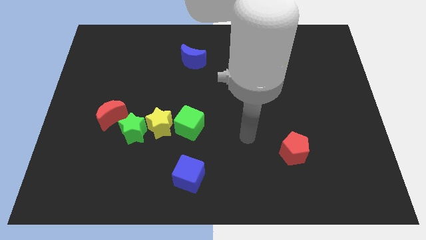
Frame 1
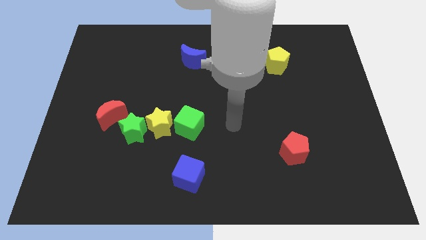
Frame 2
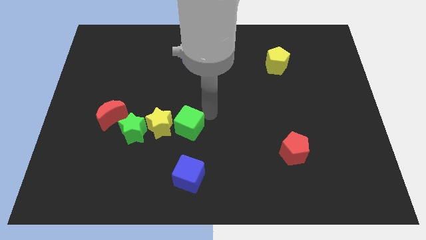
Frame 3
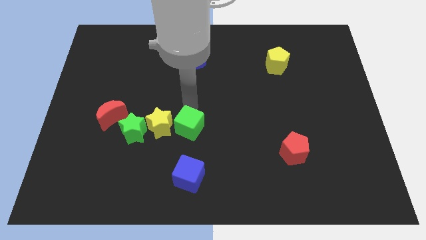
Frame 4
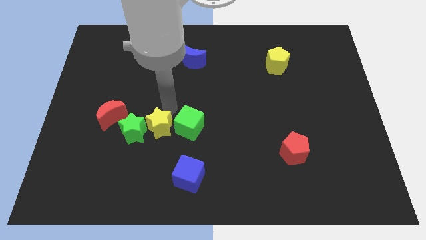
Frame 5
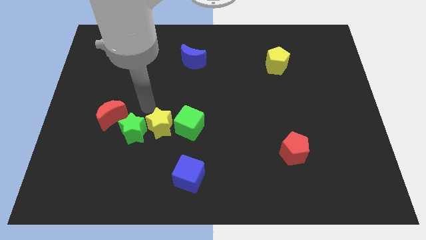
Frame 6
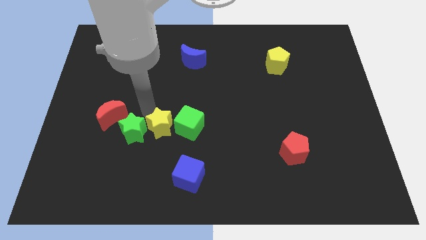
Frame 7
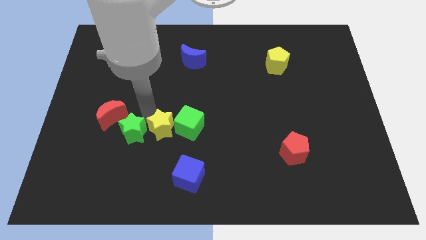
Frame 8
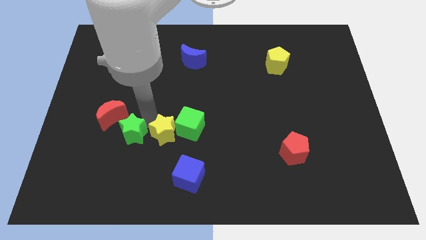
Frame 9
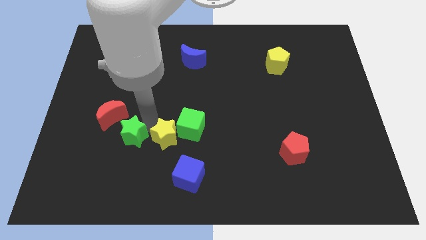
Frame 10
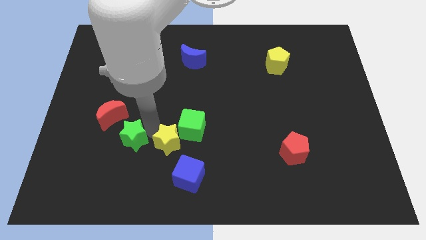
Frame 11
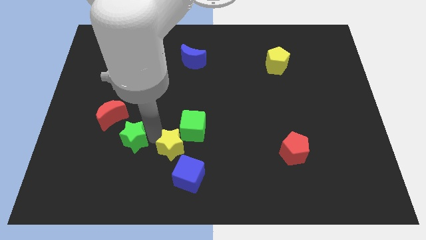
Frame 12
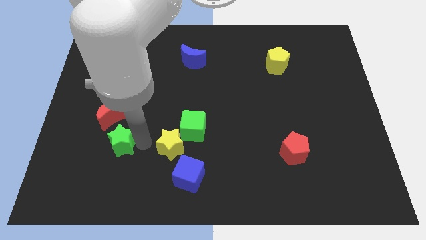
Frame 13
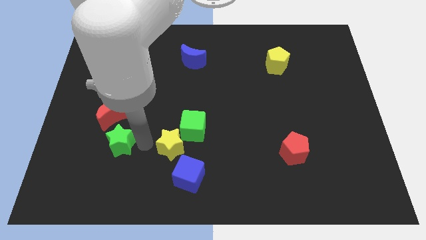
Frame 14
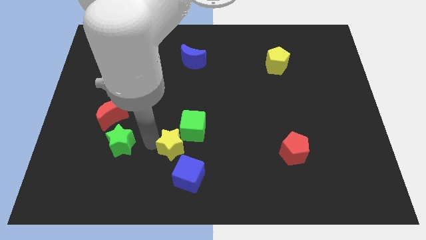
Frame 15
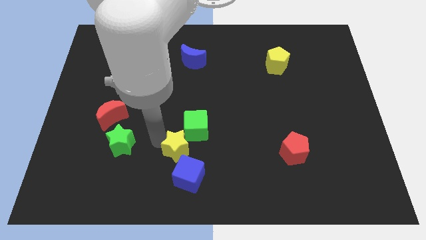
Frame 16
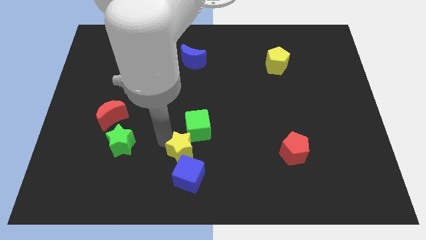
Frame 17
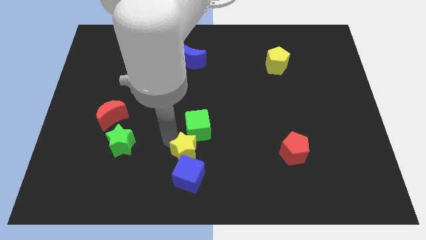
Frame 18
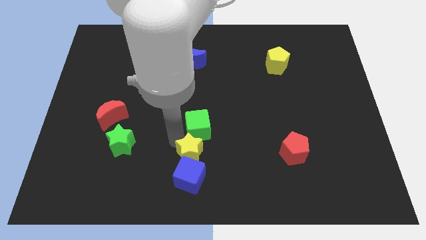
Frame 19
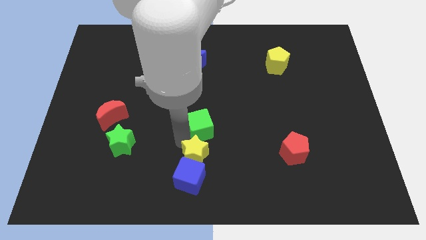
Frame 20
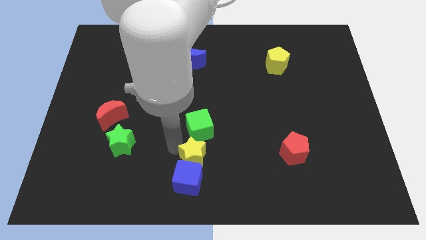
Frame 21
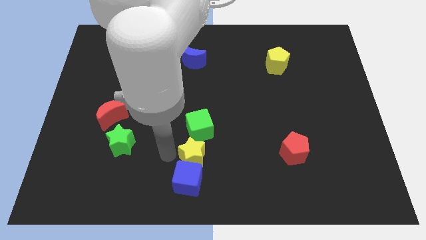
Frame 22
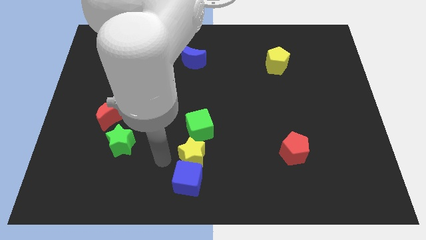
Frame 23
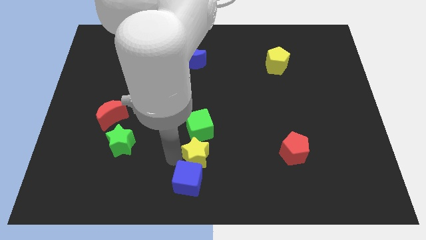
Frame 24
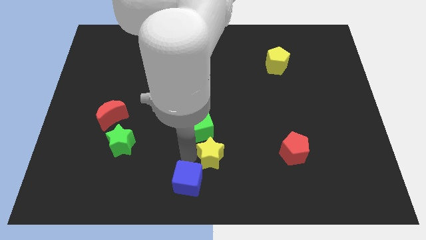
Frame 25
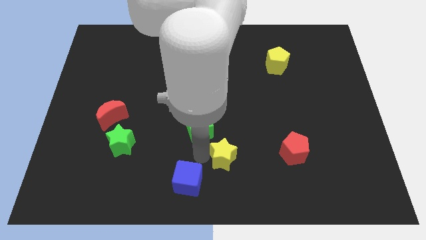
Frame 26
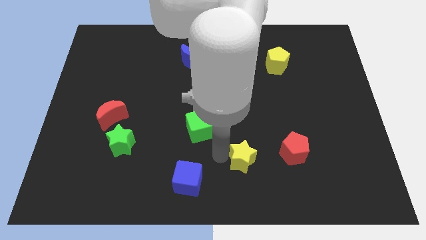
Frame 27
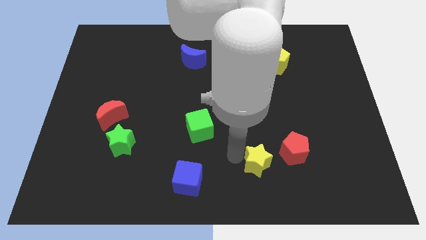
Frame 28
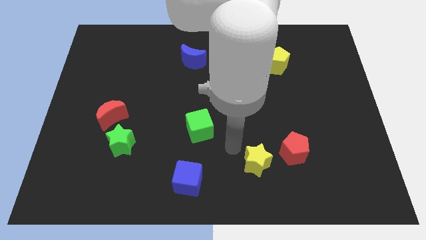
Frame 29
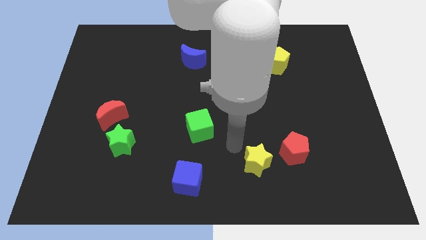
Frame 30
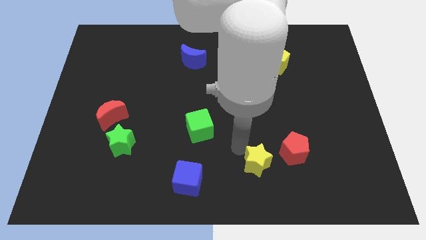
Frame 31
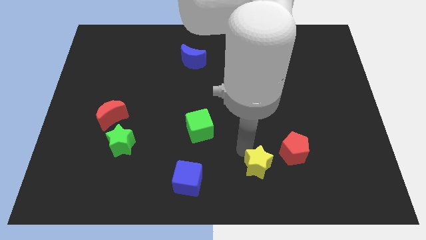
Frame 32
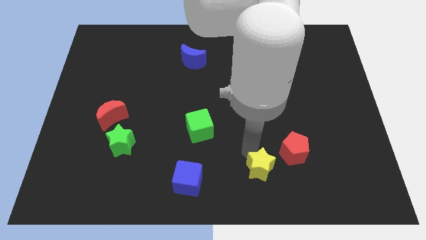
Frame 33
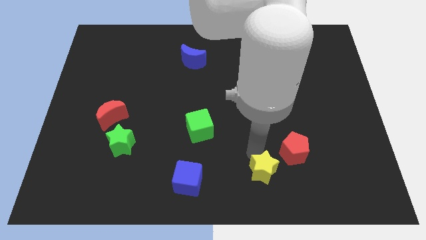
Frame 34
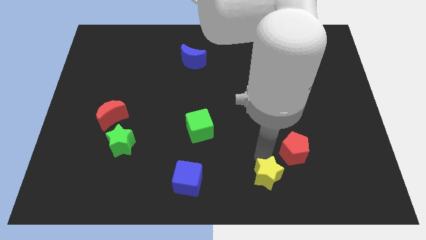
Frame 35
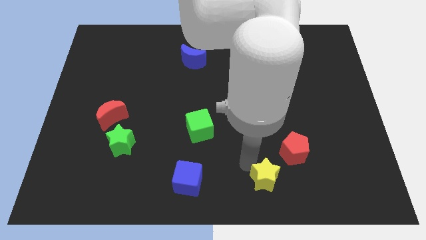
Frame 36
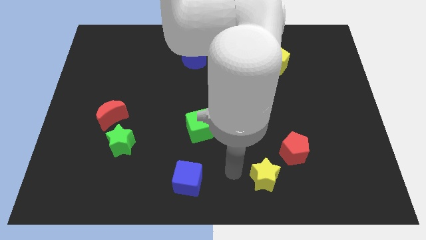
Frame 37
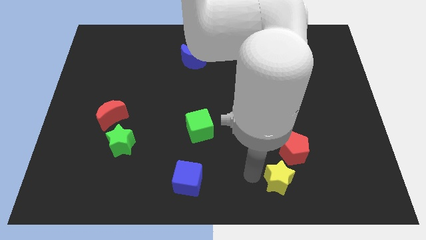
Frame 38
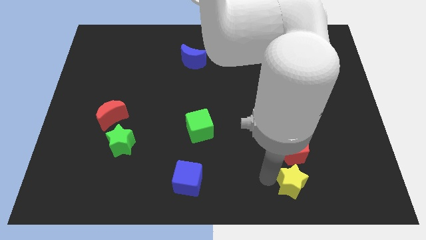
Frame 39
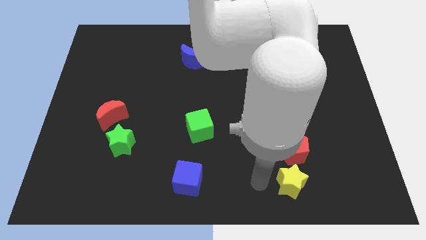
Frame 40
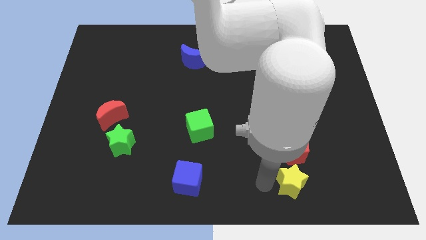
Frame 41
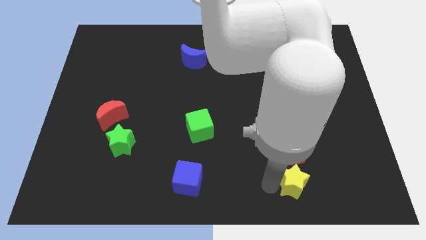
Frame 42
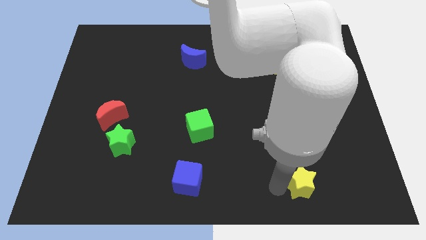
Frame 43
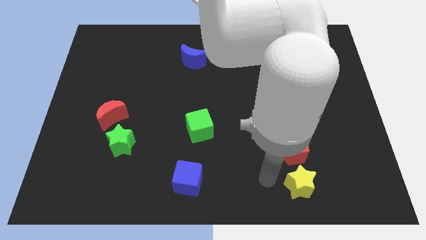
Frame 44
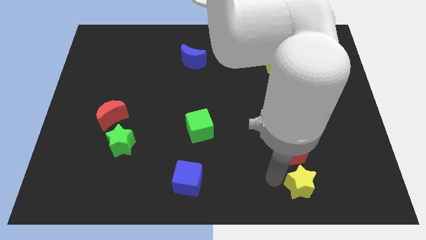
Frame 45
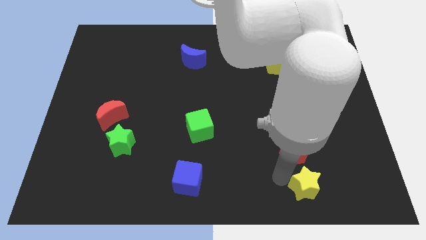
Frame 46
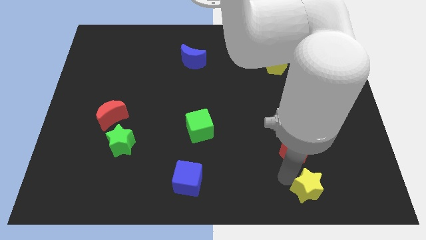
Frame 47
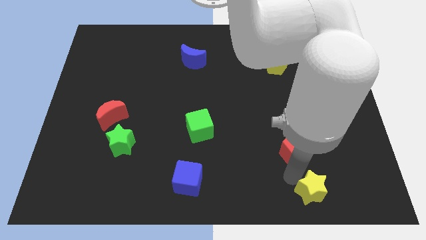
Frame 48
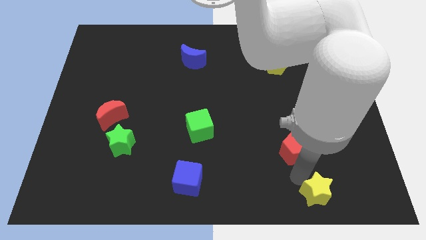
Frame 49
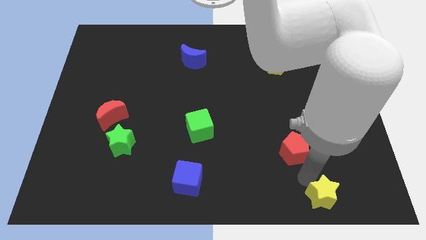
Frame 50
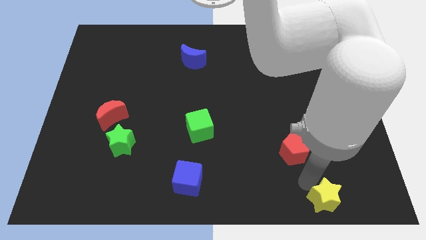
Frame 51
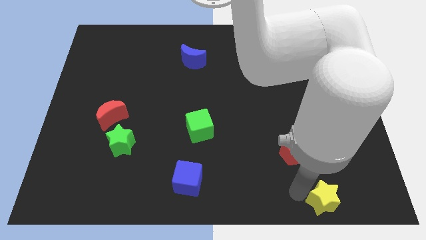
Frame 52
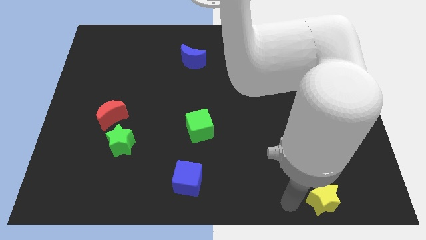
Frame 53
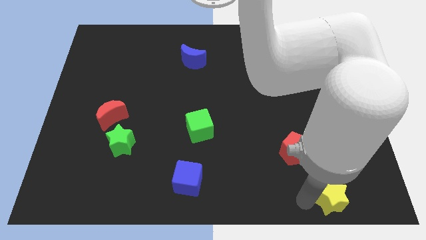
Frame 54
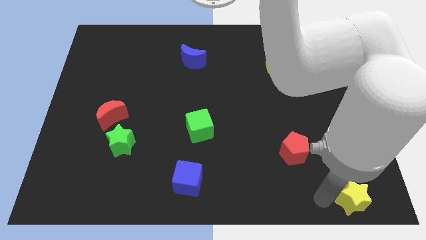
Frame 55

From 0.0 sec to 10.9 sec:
slide the yellow star to the bottom right corner

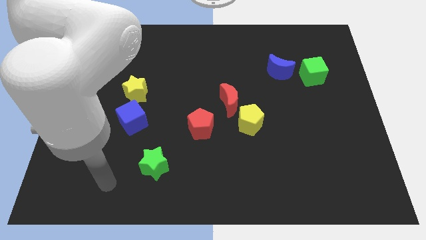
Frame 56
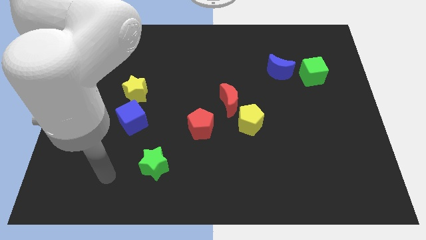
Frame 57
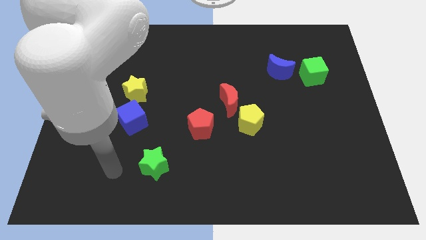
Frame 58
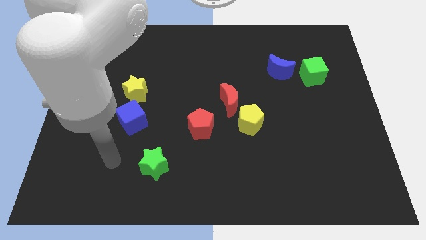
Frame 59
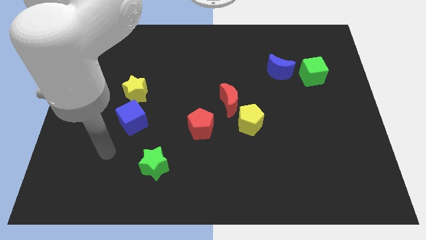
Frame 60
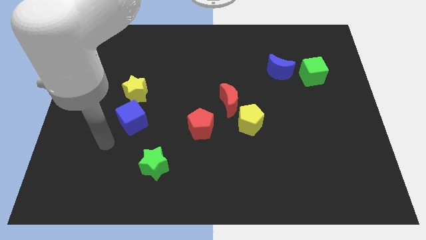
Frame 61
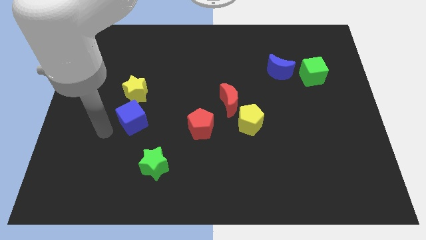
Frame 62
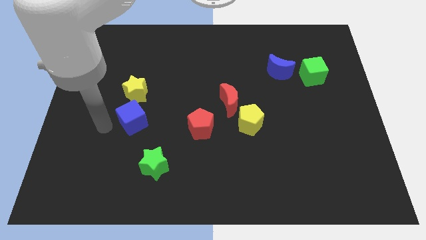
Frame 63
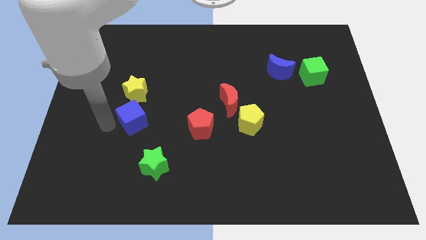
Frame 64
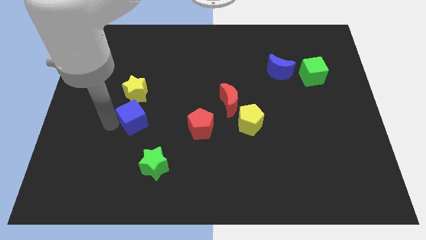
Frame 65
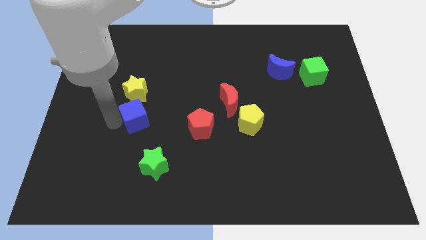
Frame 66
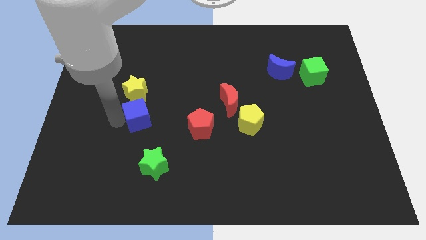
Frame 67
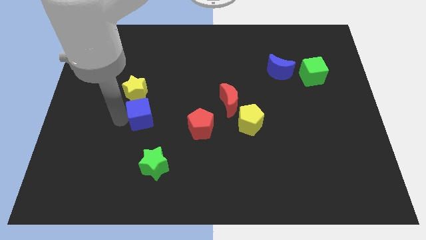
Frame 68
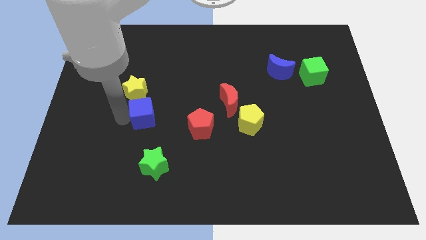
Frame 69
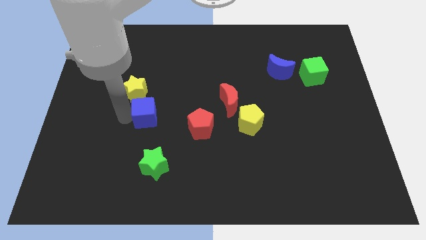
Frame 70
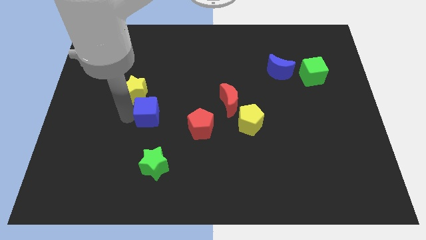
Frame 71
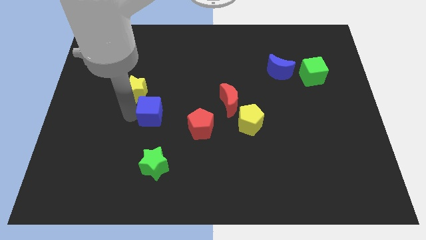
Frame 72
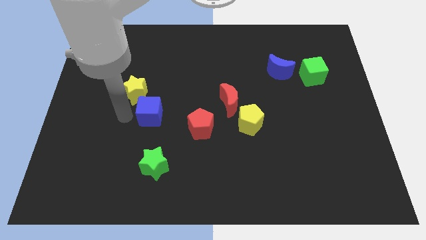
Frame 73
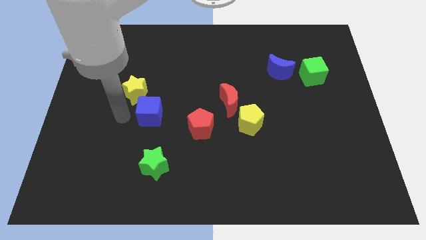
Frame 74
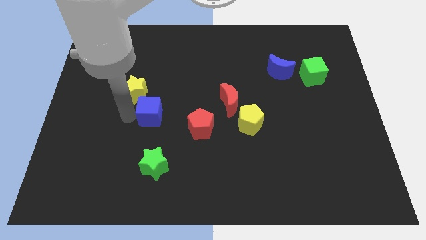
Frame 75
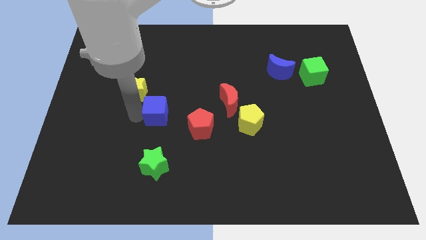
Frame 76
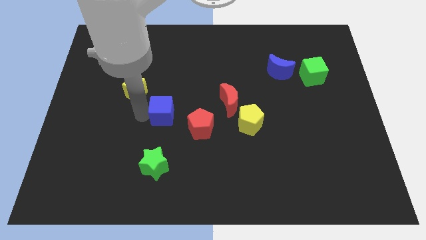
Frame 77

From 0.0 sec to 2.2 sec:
put the blue cube to the middle
